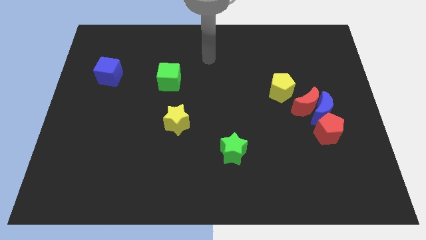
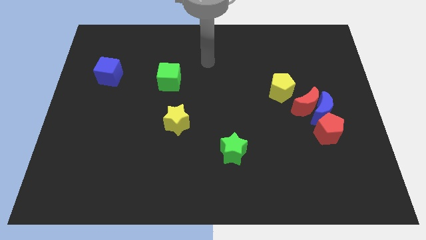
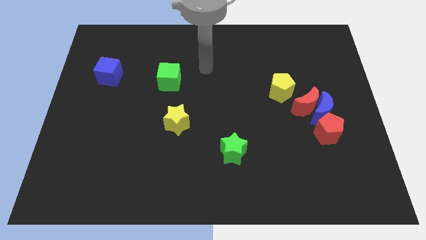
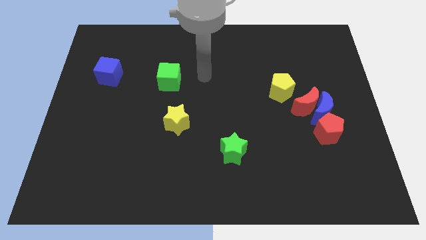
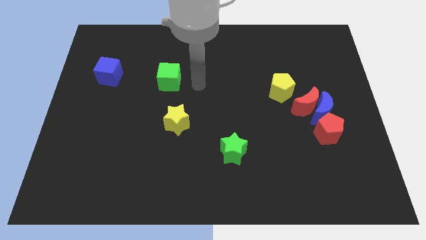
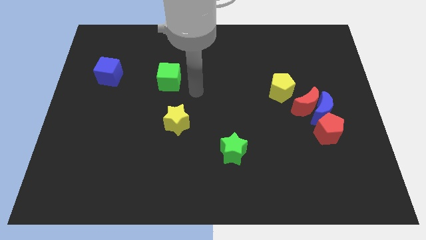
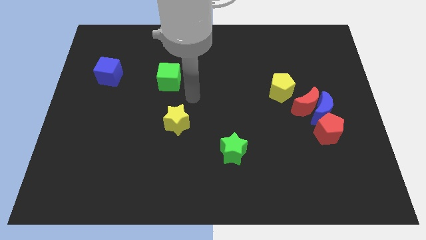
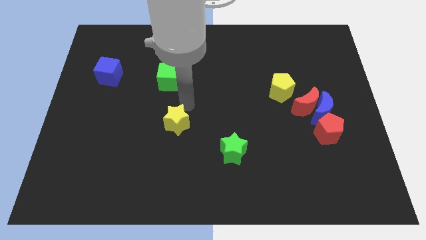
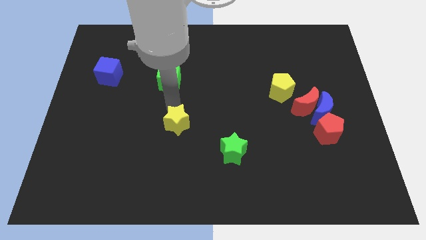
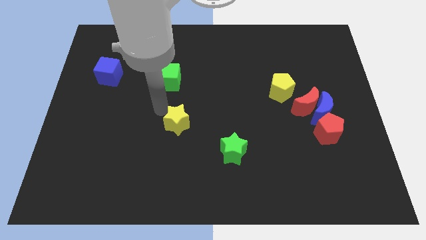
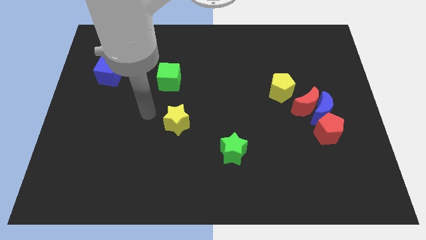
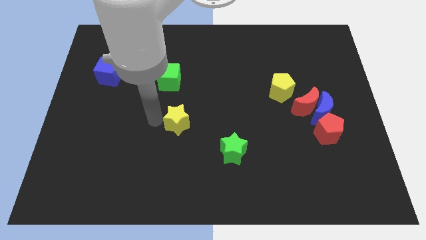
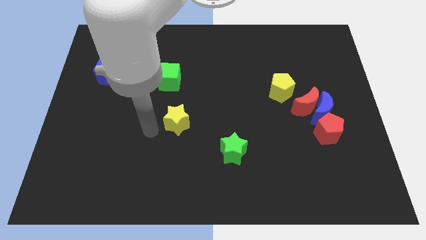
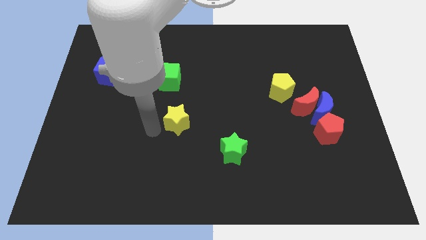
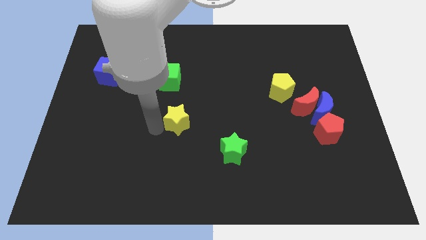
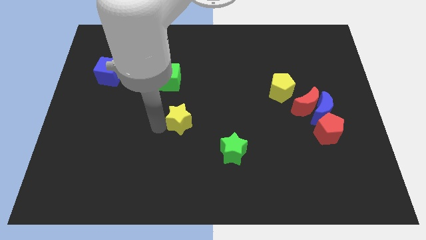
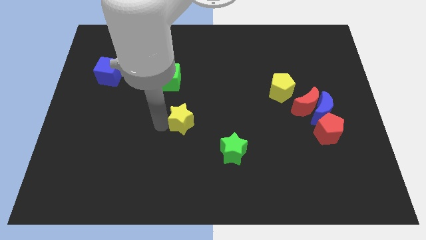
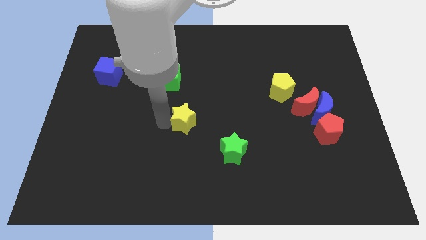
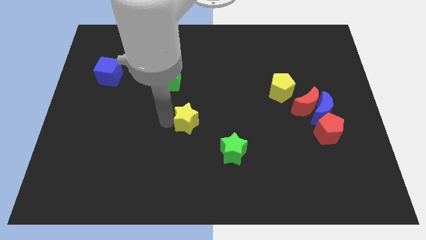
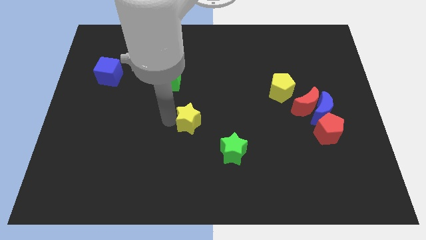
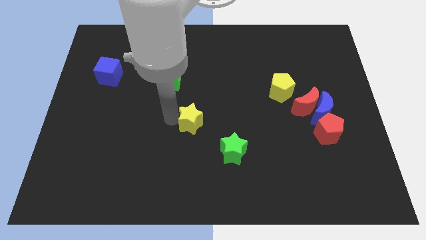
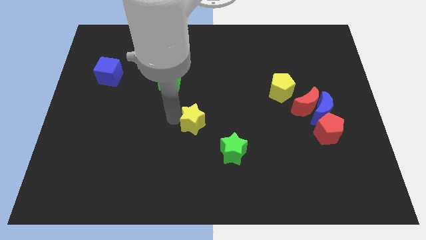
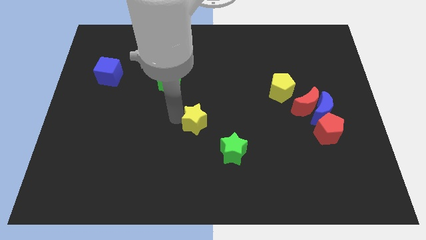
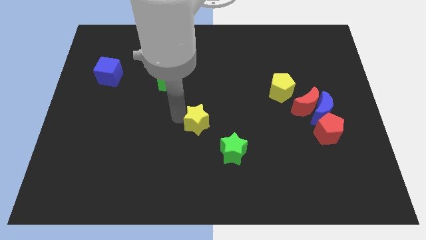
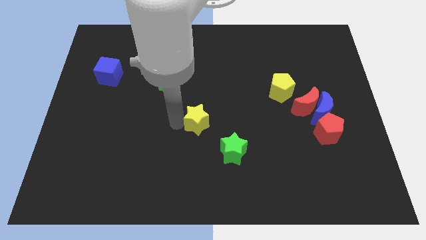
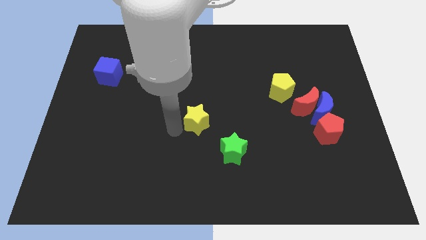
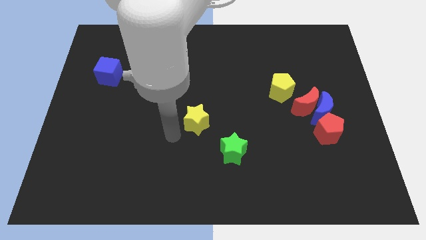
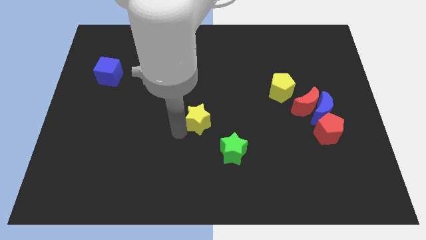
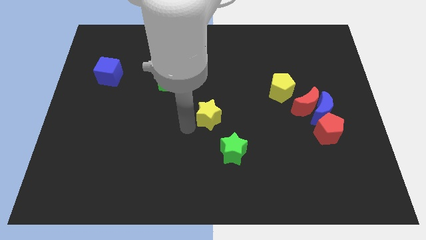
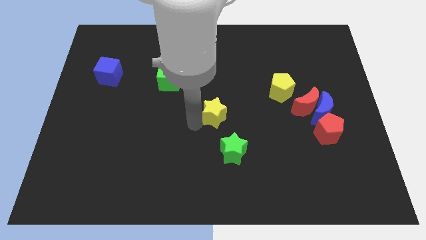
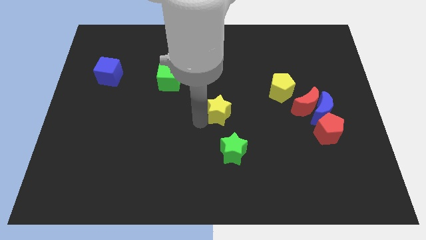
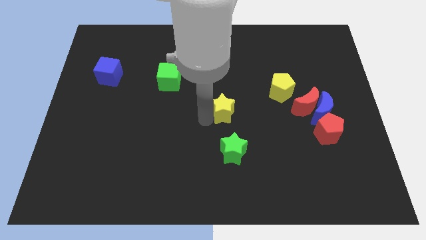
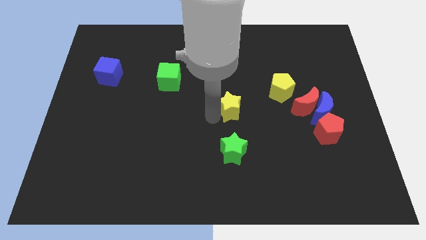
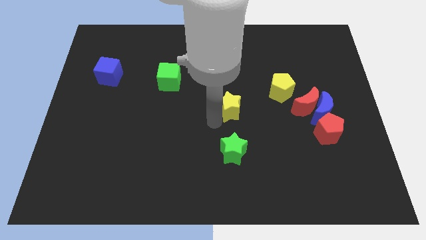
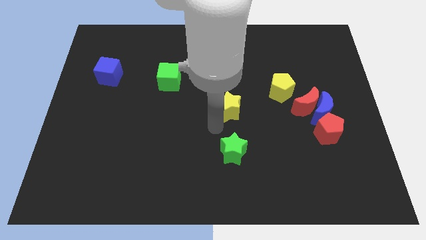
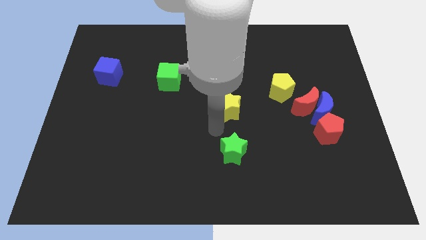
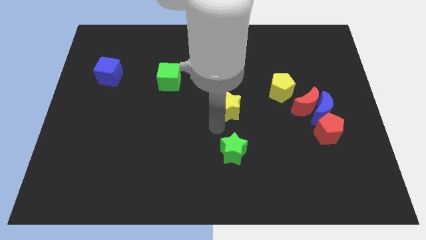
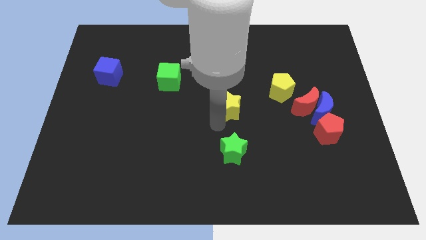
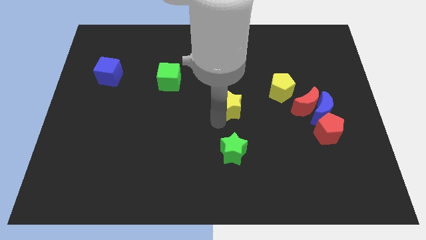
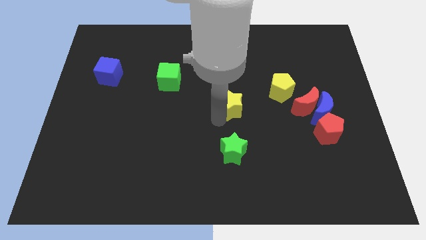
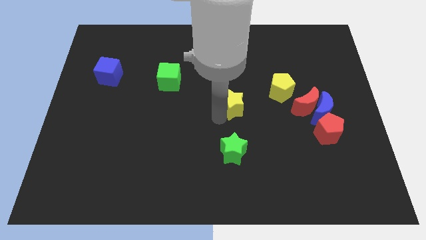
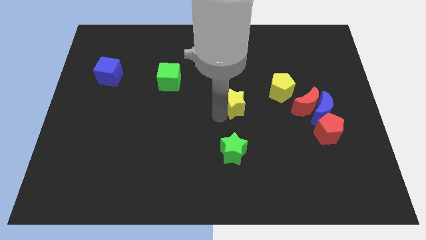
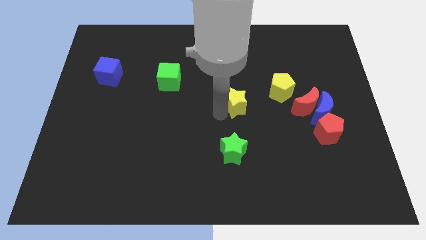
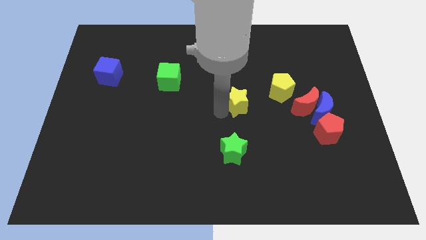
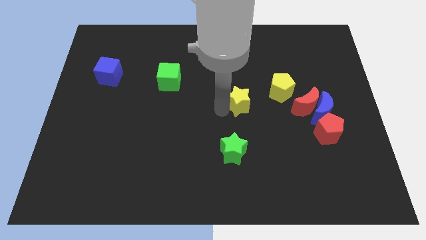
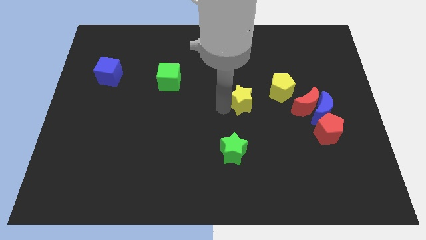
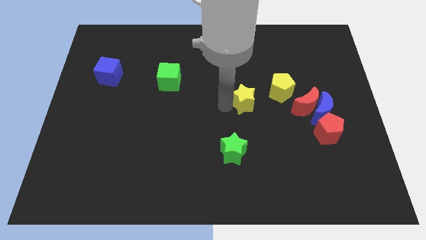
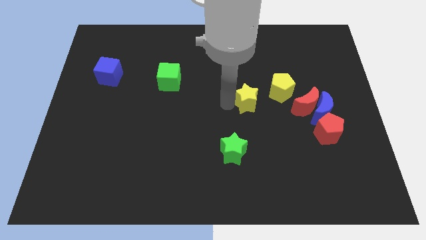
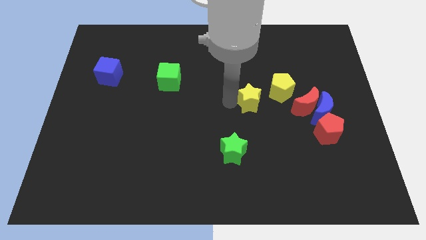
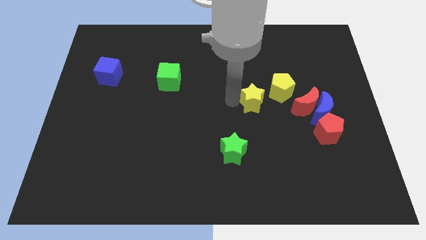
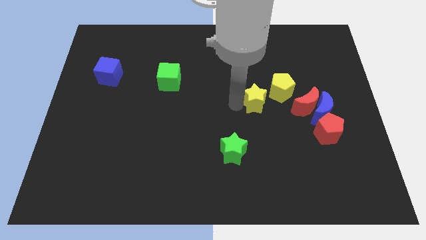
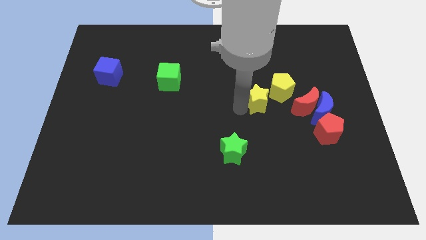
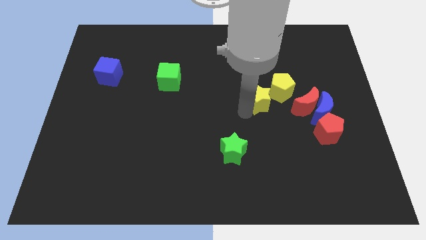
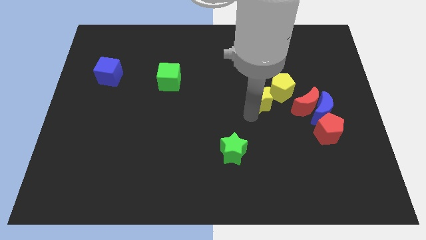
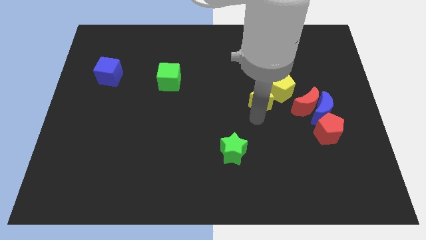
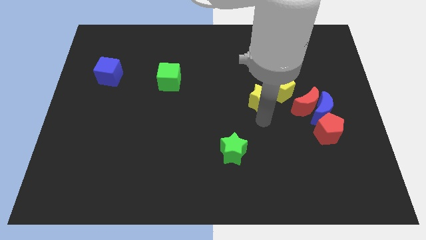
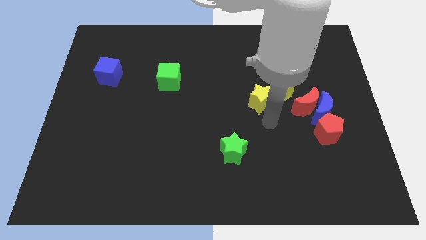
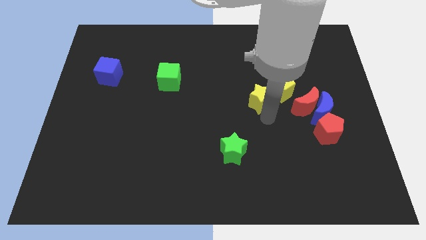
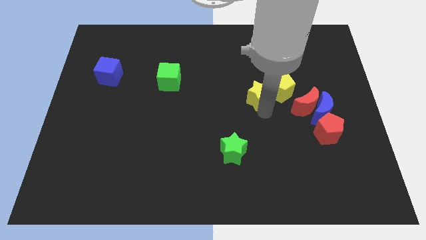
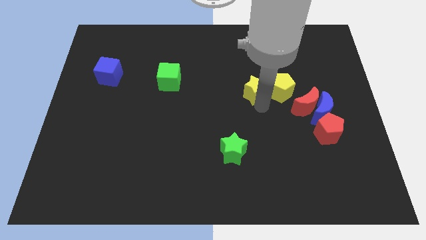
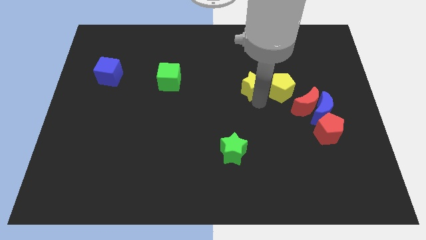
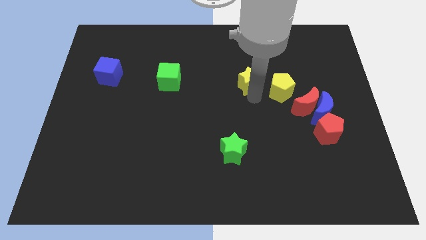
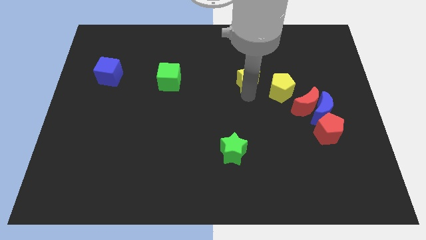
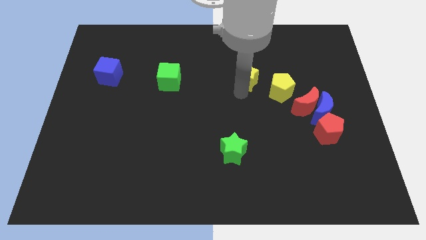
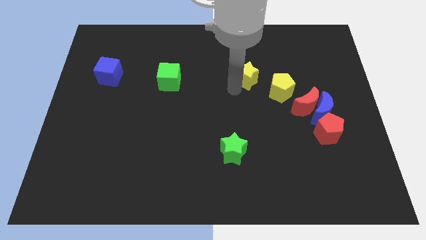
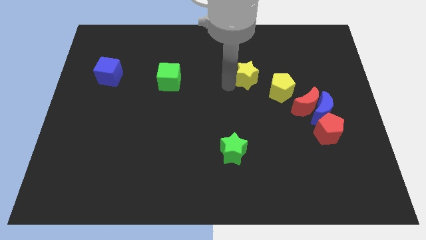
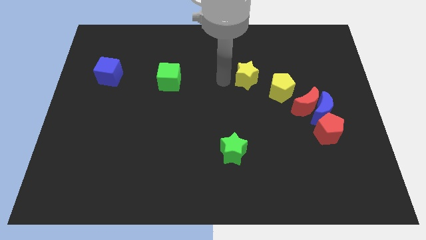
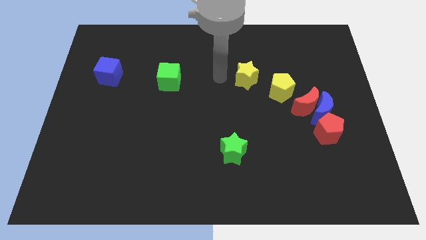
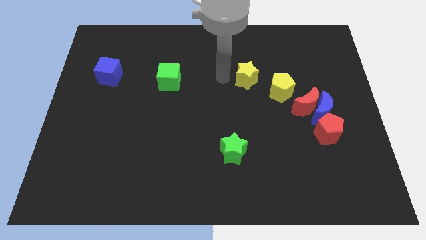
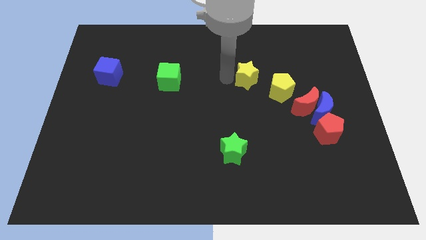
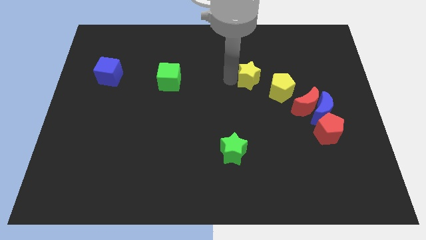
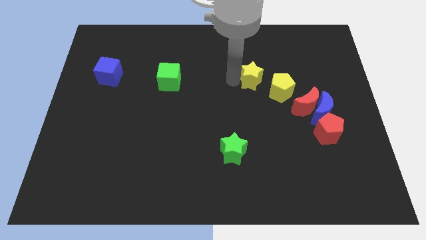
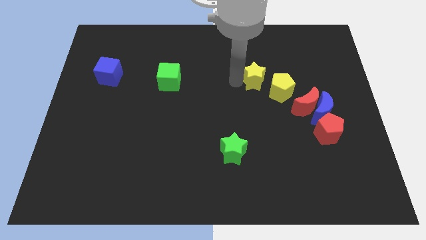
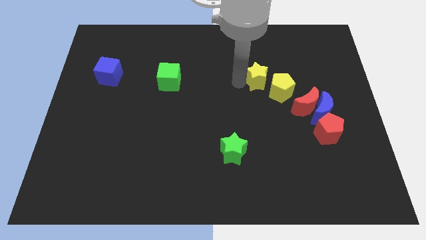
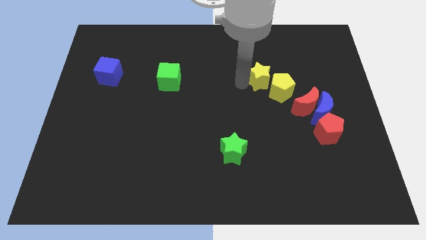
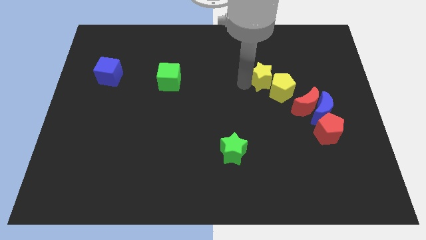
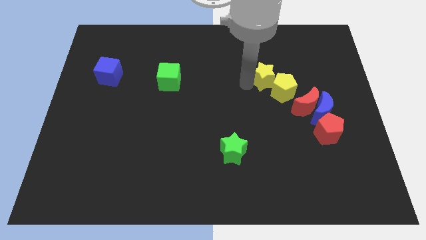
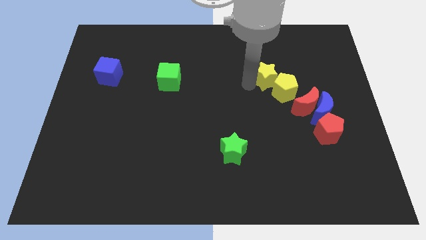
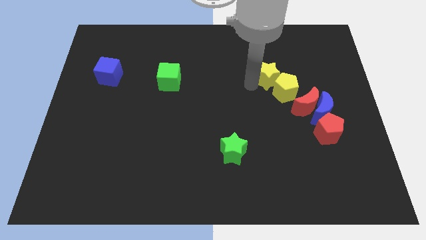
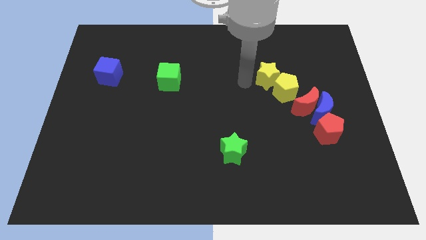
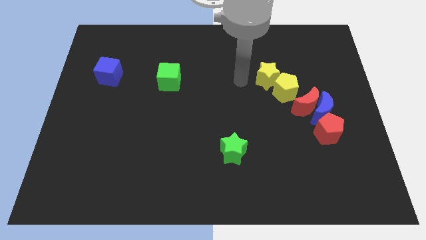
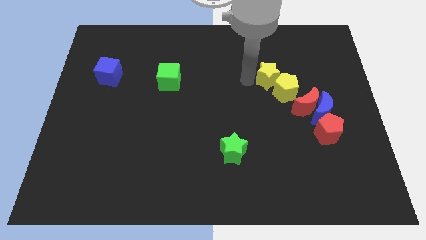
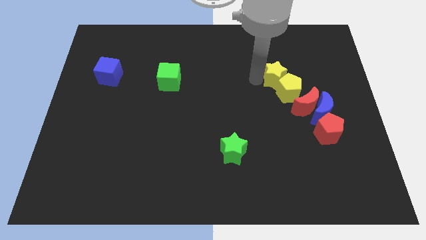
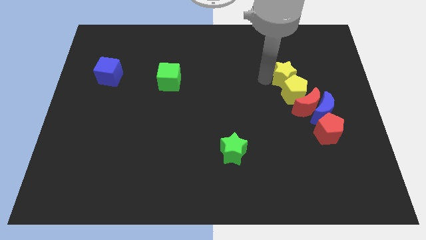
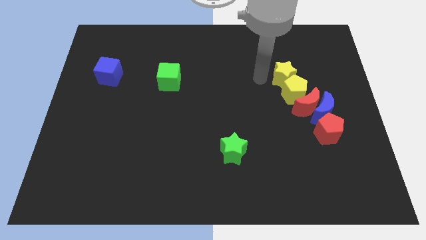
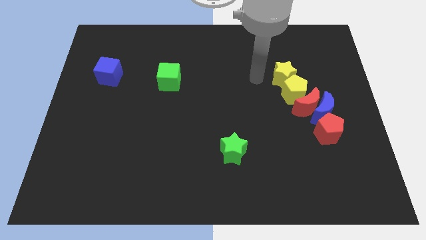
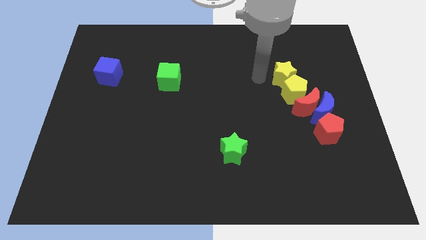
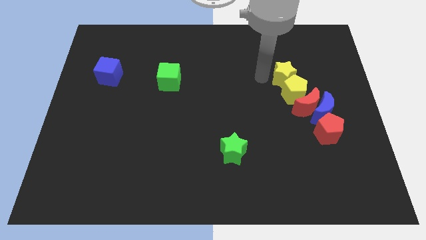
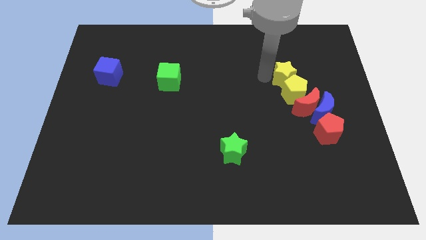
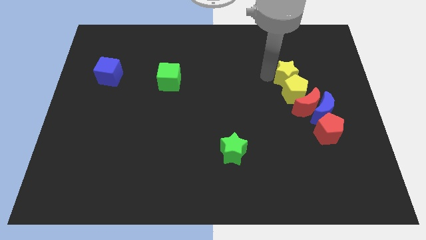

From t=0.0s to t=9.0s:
put the yellow star to the top right of the yellow pentagon
